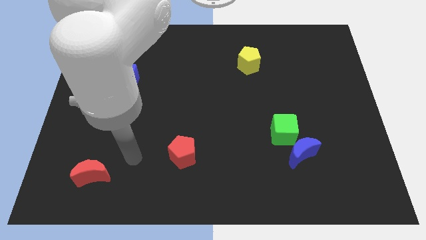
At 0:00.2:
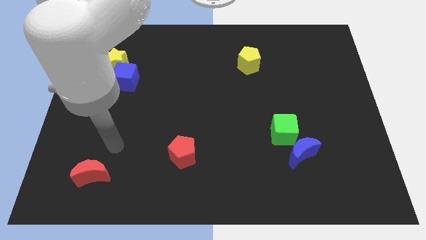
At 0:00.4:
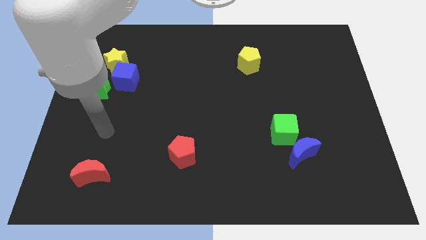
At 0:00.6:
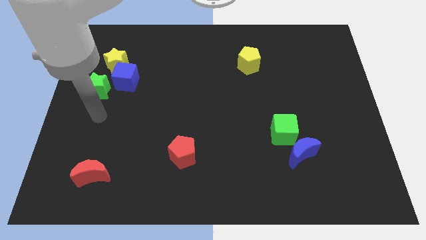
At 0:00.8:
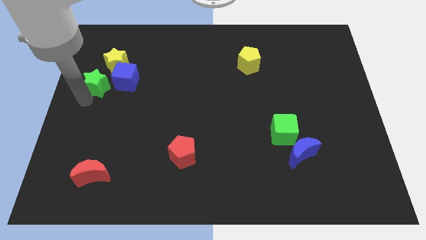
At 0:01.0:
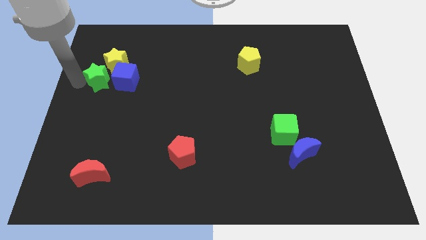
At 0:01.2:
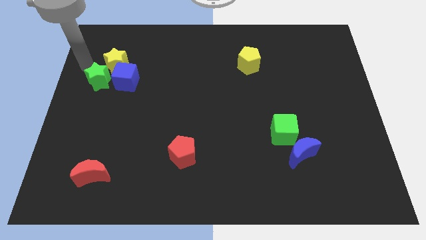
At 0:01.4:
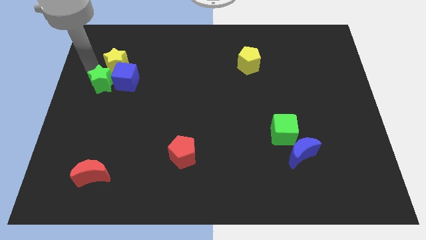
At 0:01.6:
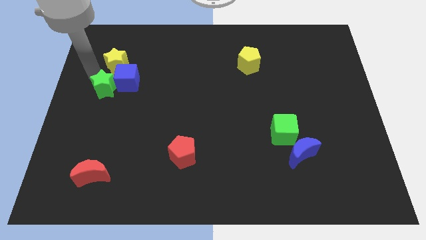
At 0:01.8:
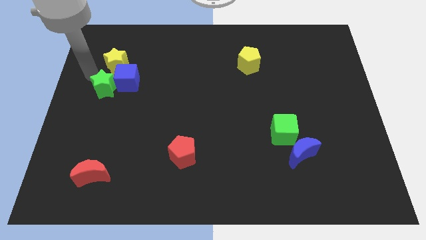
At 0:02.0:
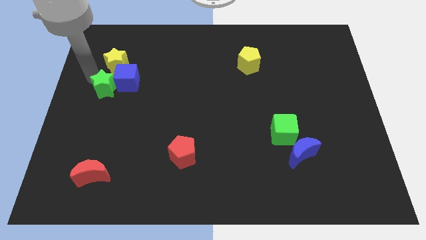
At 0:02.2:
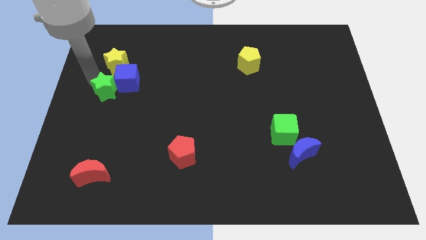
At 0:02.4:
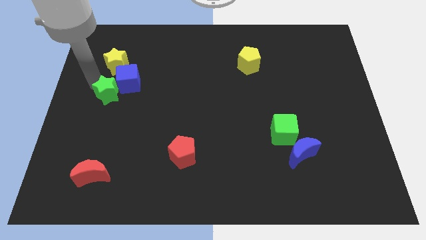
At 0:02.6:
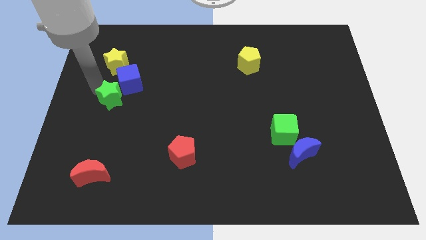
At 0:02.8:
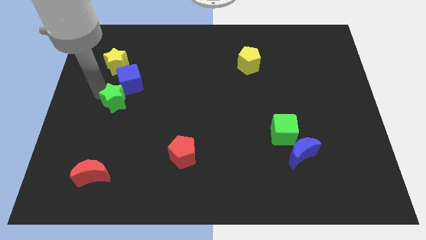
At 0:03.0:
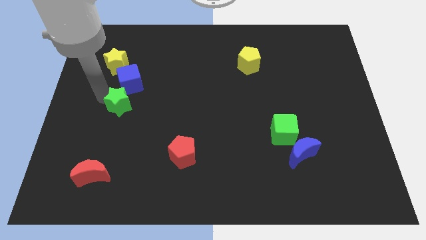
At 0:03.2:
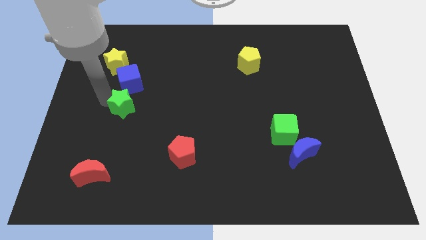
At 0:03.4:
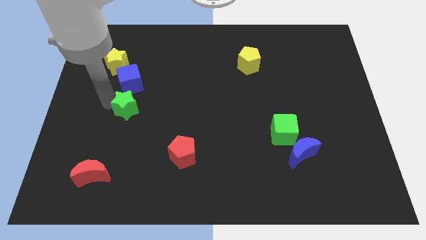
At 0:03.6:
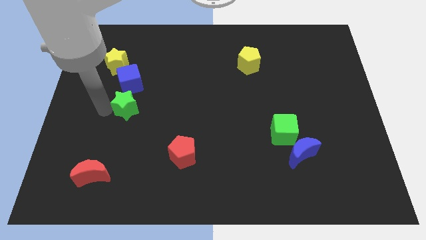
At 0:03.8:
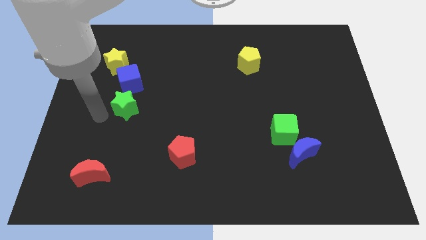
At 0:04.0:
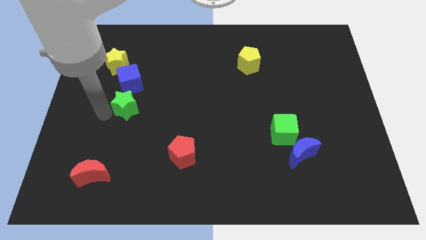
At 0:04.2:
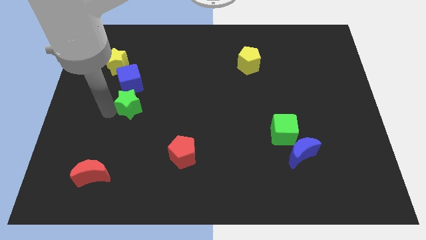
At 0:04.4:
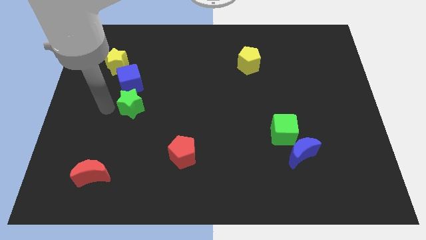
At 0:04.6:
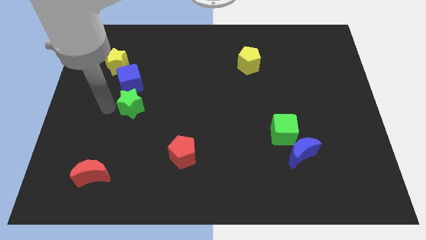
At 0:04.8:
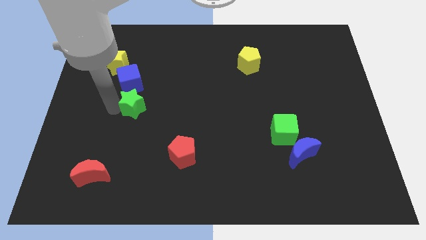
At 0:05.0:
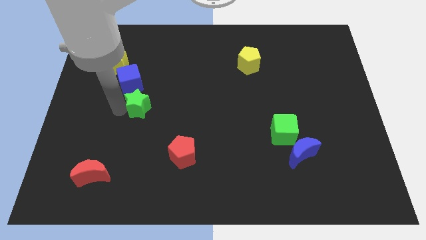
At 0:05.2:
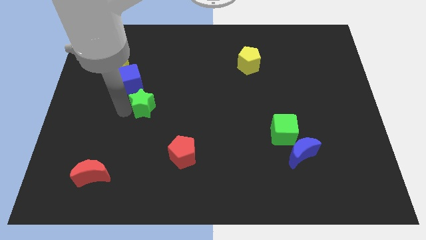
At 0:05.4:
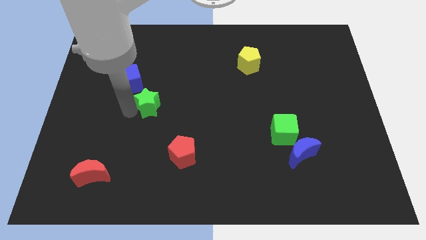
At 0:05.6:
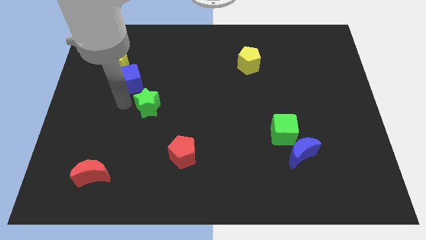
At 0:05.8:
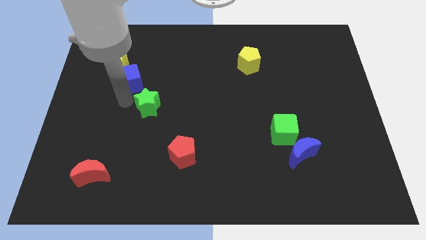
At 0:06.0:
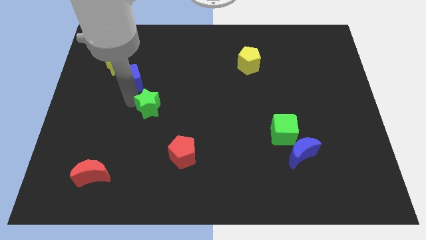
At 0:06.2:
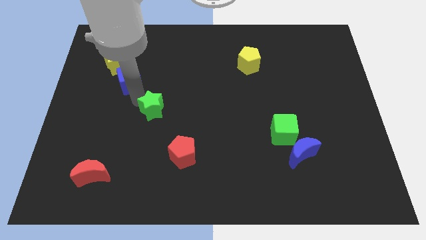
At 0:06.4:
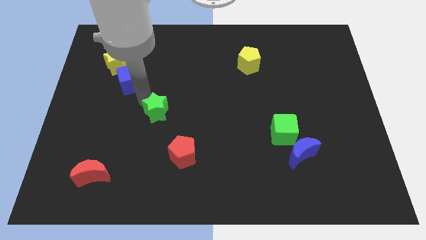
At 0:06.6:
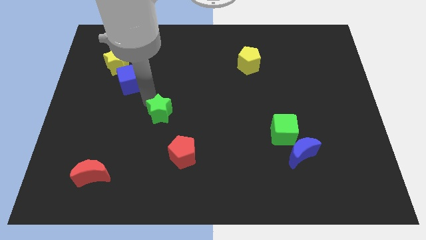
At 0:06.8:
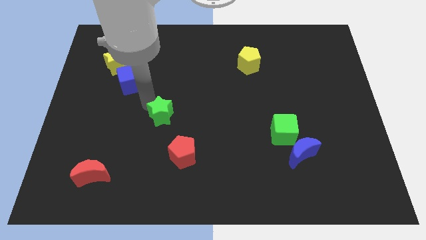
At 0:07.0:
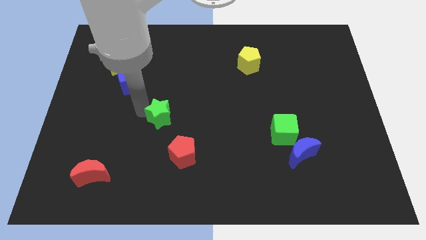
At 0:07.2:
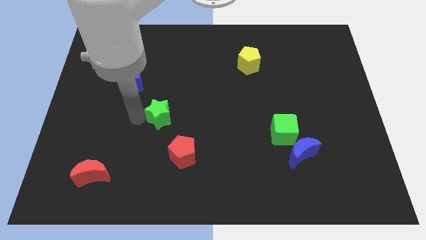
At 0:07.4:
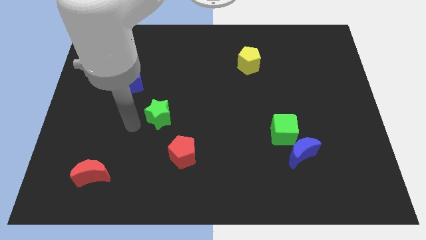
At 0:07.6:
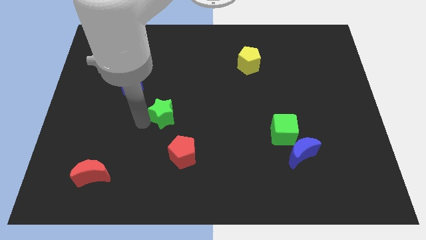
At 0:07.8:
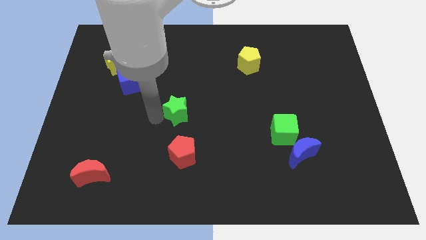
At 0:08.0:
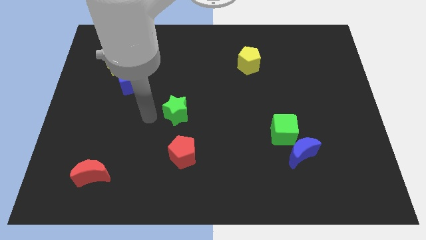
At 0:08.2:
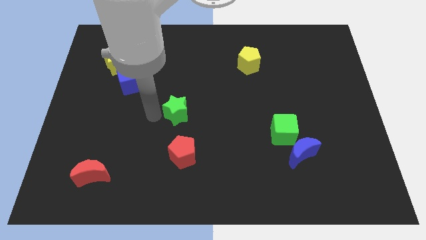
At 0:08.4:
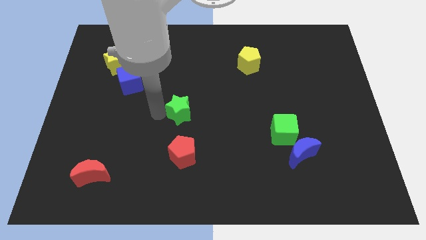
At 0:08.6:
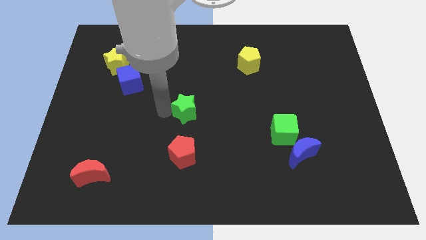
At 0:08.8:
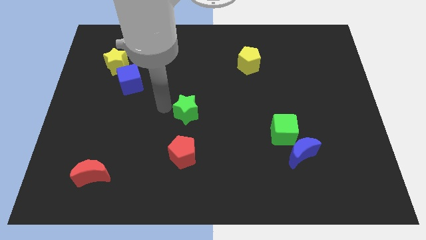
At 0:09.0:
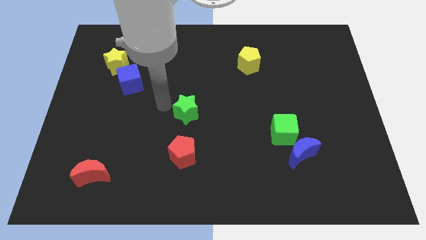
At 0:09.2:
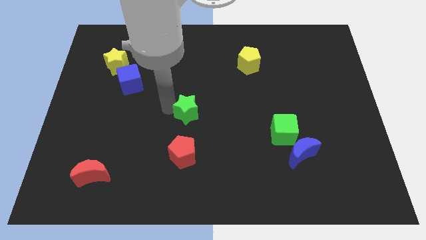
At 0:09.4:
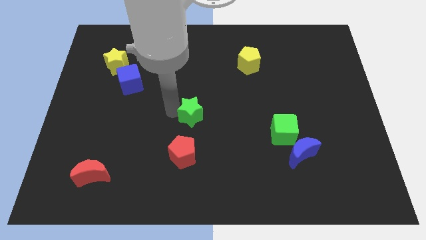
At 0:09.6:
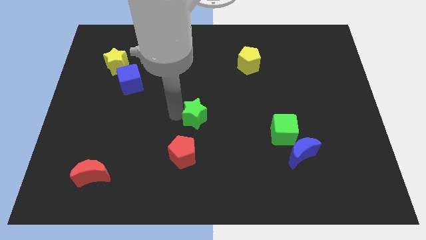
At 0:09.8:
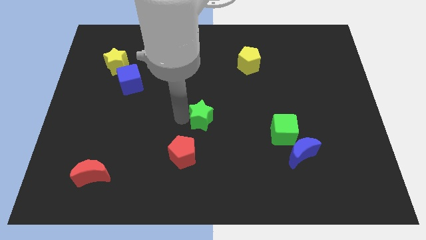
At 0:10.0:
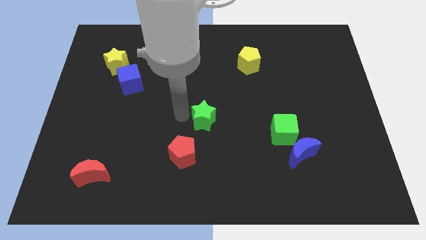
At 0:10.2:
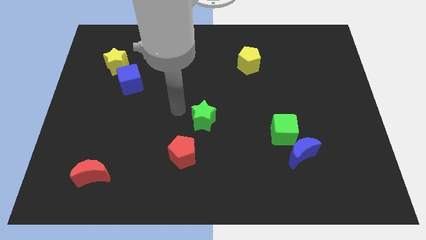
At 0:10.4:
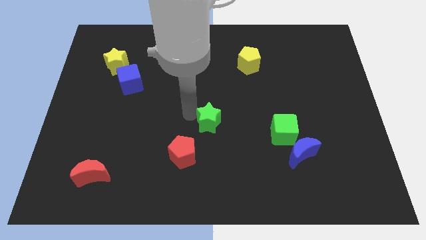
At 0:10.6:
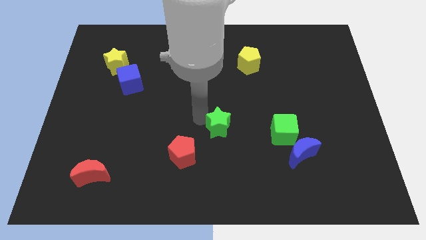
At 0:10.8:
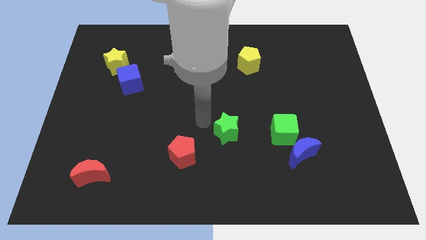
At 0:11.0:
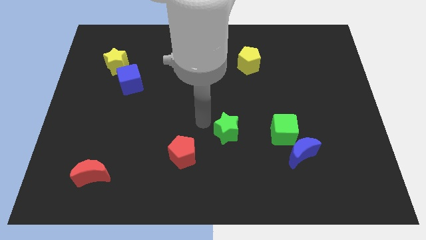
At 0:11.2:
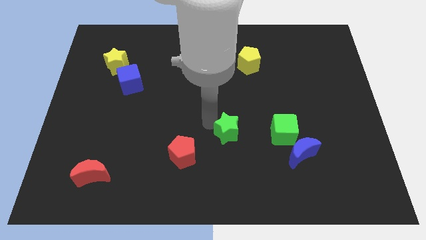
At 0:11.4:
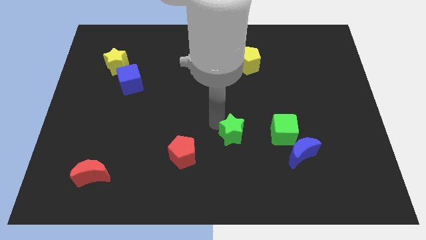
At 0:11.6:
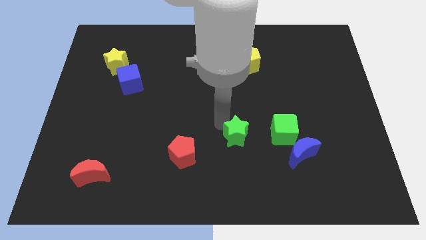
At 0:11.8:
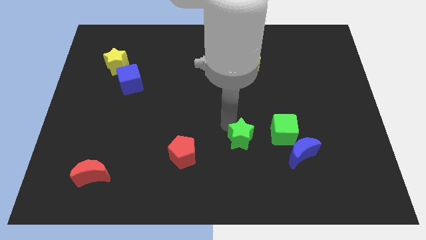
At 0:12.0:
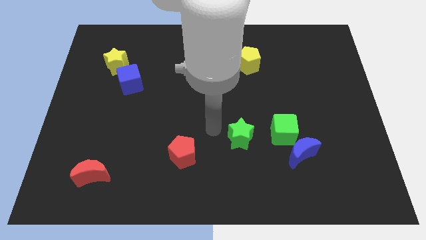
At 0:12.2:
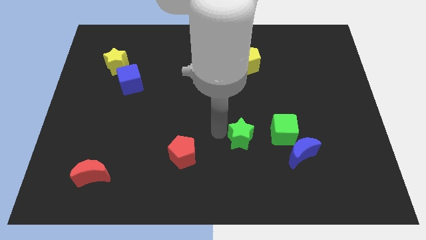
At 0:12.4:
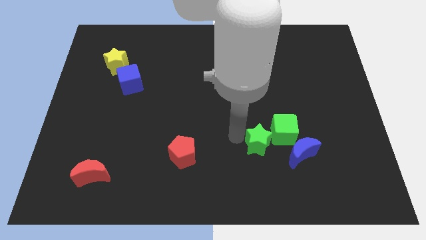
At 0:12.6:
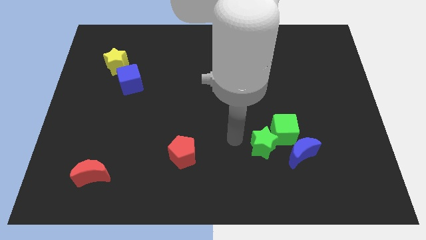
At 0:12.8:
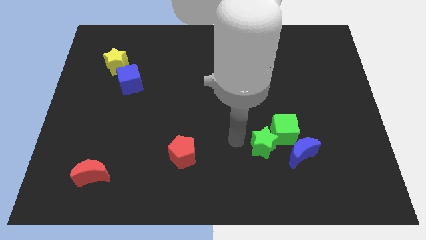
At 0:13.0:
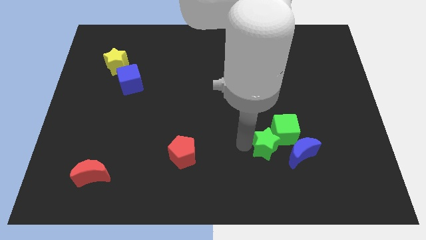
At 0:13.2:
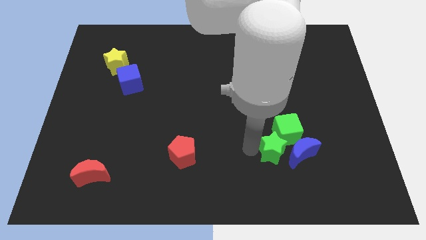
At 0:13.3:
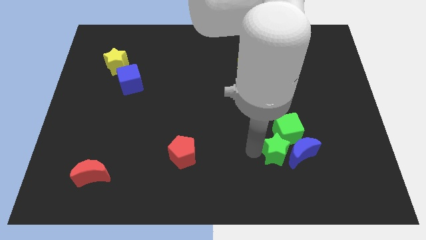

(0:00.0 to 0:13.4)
slide the green star to the blue moon

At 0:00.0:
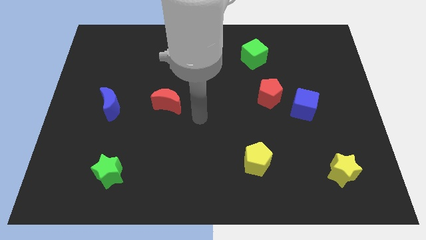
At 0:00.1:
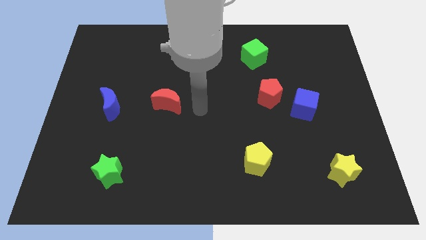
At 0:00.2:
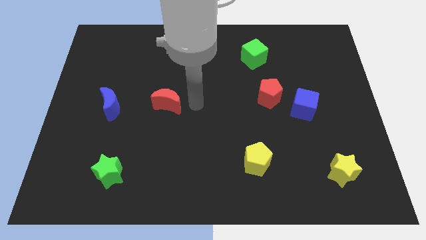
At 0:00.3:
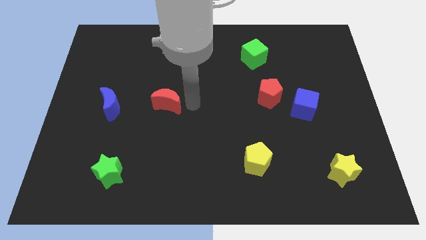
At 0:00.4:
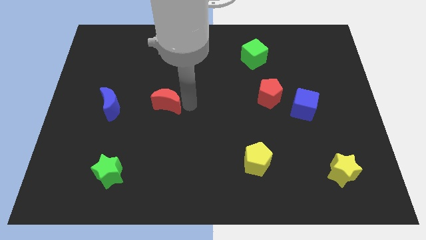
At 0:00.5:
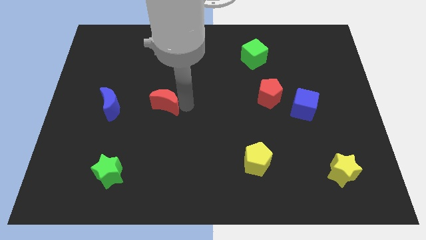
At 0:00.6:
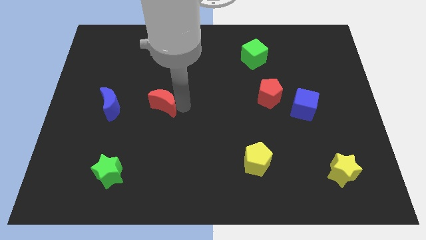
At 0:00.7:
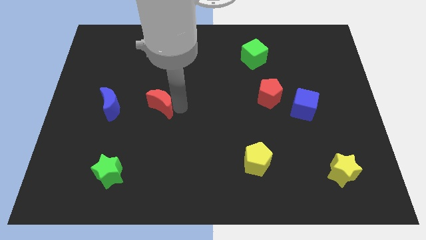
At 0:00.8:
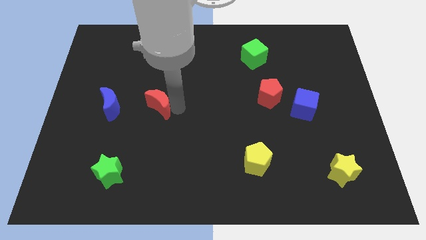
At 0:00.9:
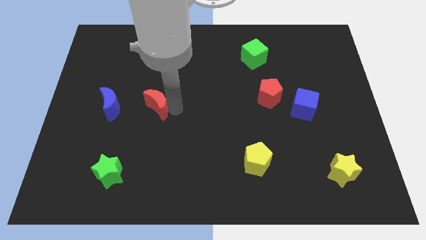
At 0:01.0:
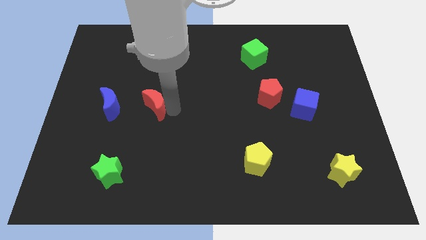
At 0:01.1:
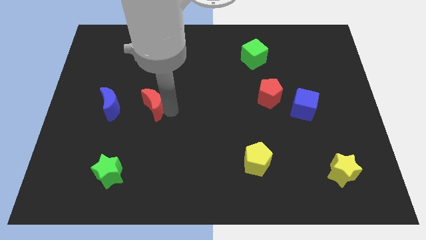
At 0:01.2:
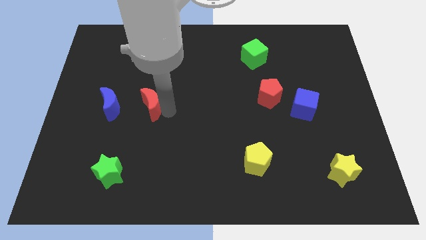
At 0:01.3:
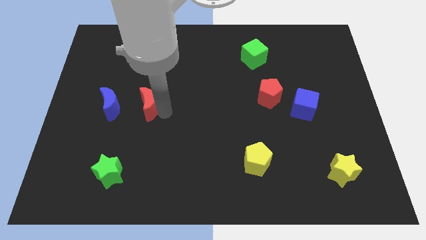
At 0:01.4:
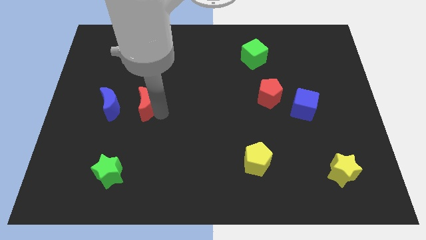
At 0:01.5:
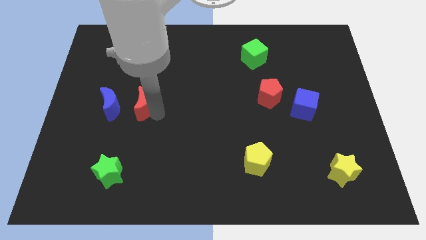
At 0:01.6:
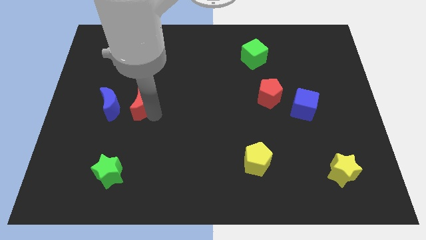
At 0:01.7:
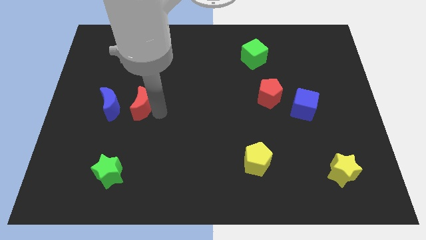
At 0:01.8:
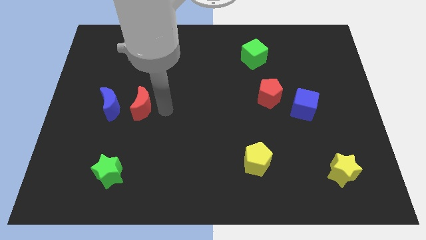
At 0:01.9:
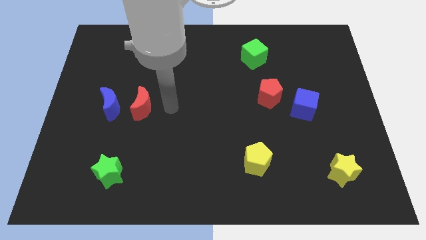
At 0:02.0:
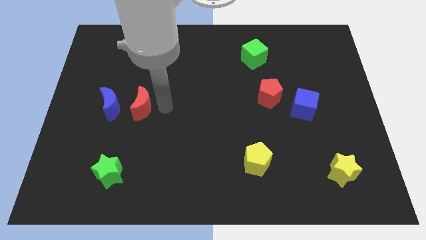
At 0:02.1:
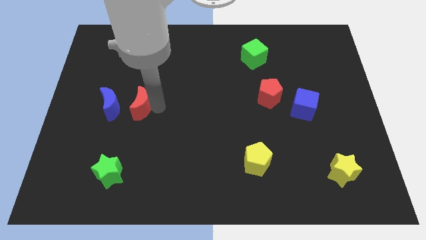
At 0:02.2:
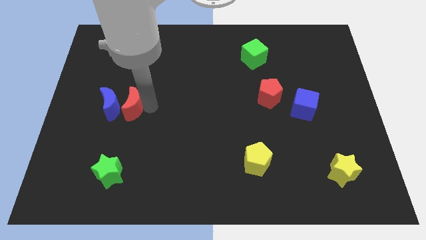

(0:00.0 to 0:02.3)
move the red moon close to the blue moon
